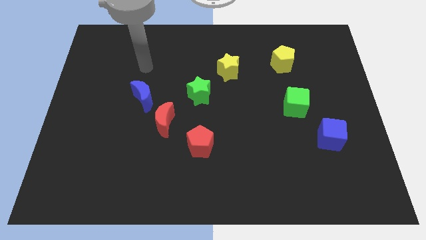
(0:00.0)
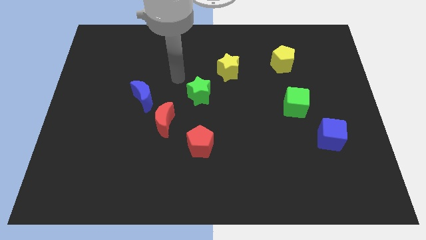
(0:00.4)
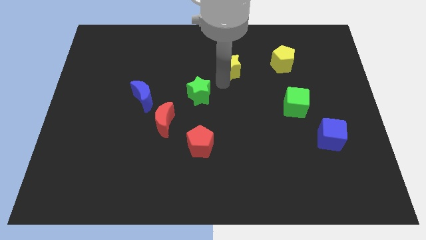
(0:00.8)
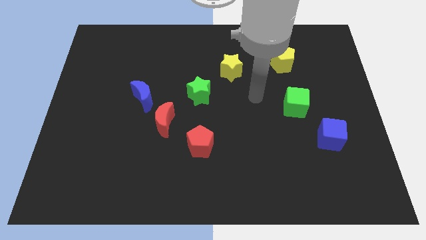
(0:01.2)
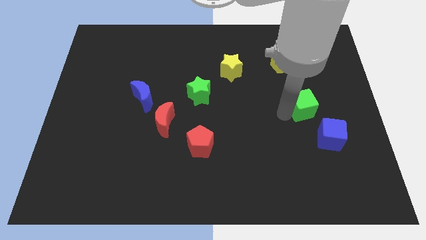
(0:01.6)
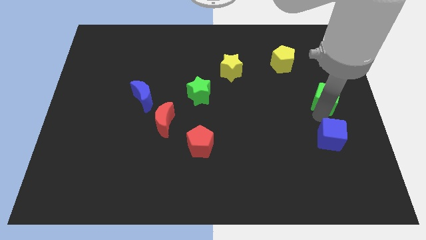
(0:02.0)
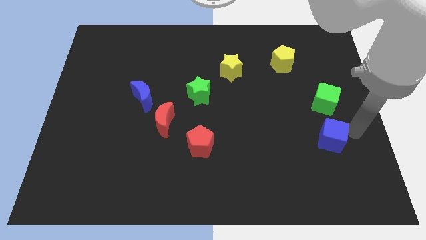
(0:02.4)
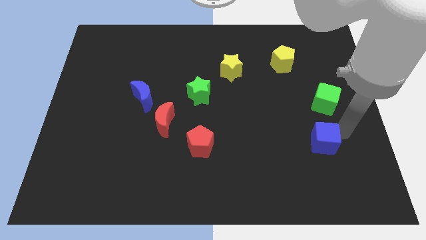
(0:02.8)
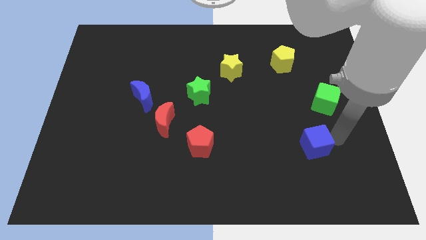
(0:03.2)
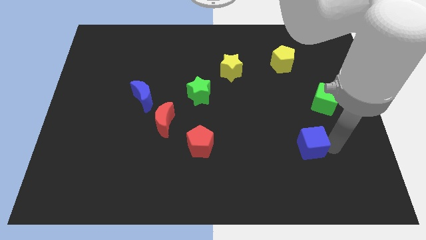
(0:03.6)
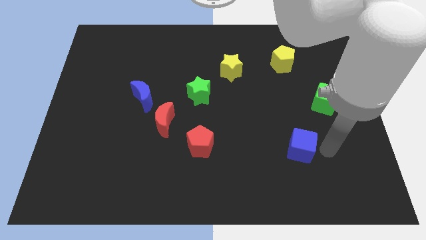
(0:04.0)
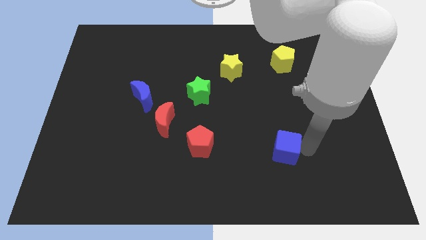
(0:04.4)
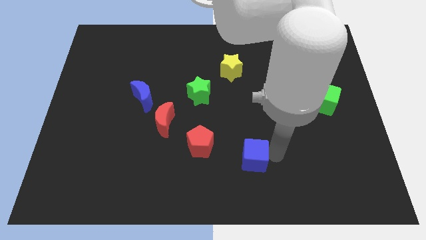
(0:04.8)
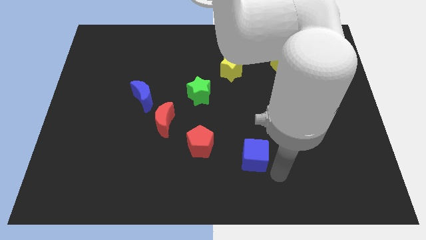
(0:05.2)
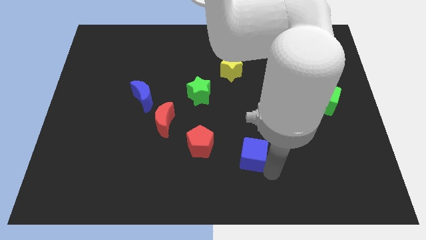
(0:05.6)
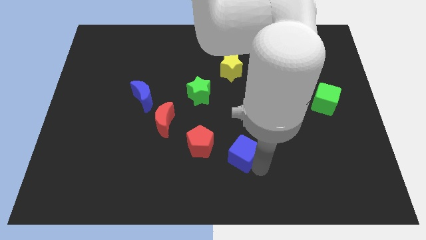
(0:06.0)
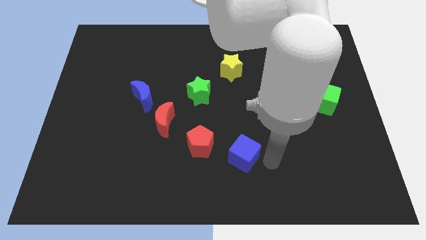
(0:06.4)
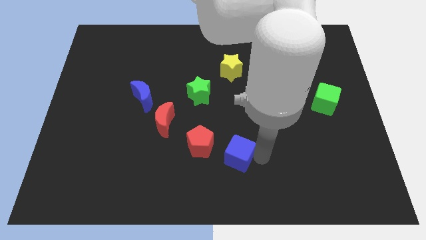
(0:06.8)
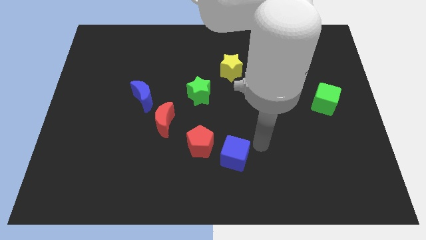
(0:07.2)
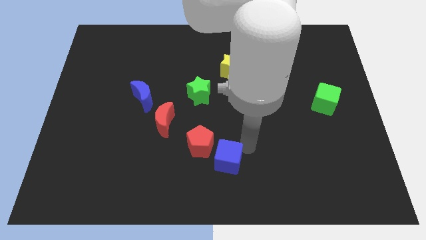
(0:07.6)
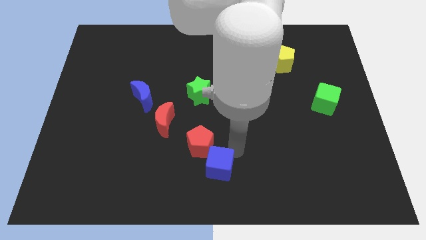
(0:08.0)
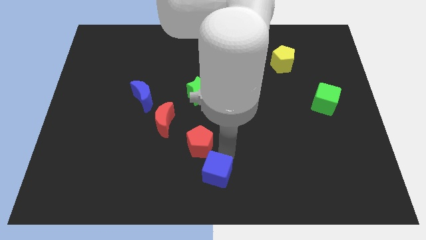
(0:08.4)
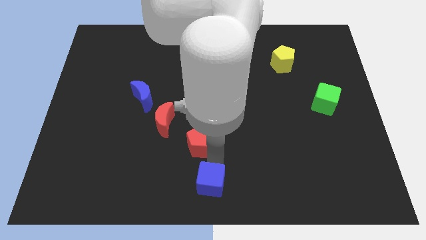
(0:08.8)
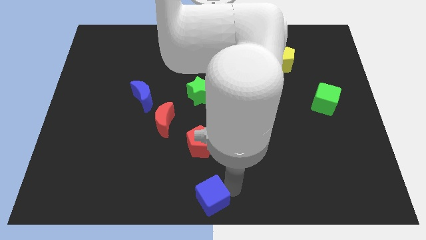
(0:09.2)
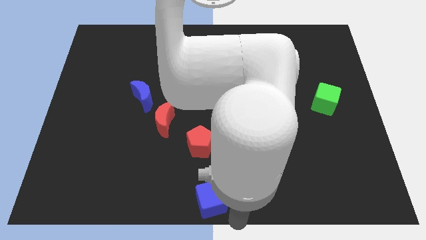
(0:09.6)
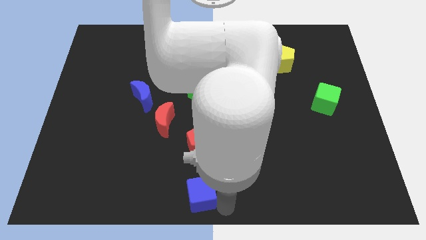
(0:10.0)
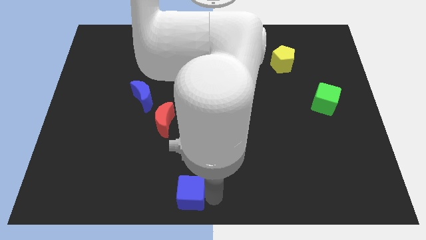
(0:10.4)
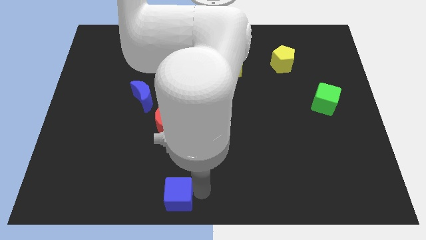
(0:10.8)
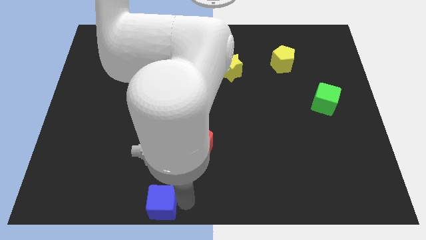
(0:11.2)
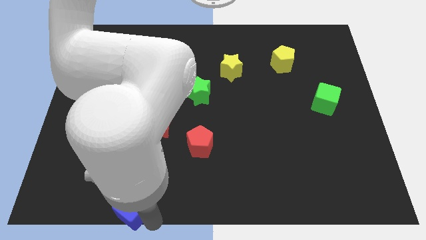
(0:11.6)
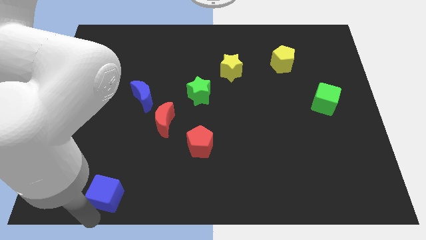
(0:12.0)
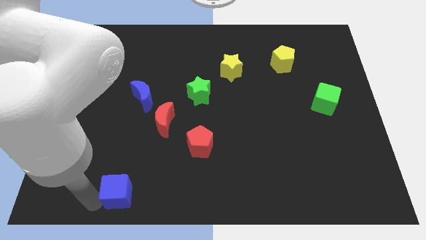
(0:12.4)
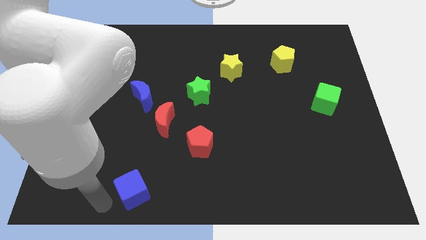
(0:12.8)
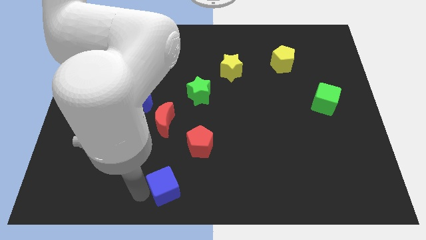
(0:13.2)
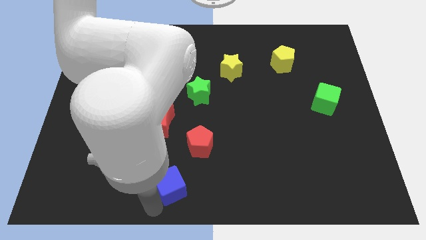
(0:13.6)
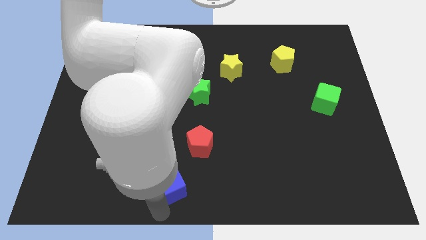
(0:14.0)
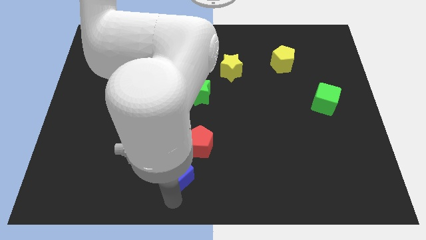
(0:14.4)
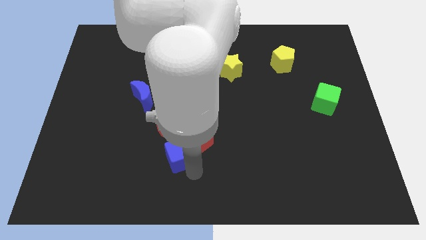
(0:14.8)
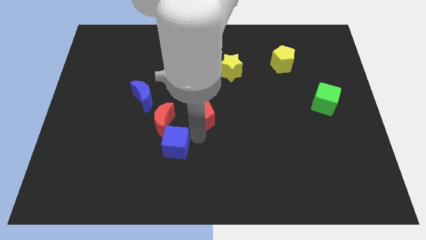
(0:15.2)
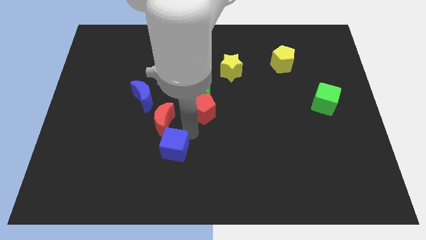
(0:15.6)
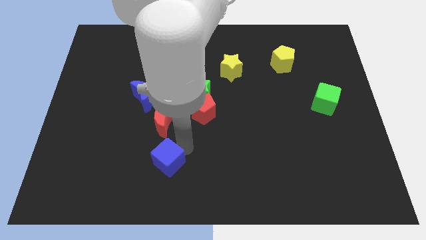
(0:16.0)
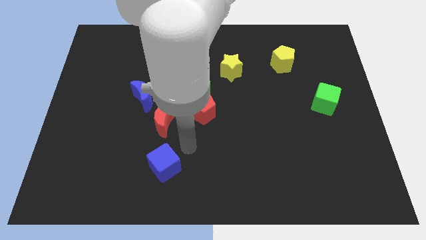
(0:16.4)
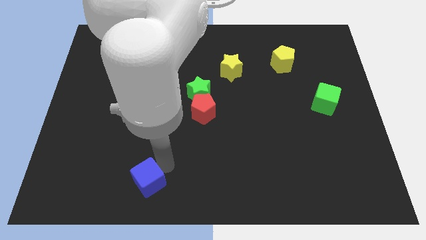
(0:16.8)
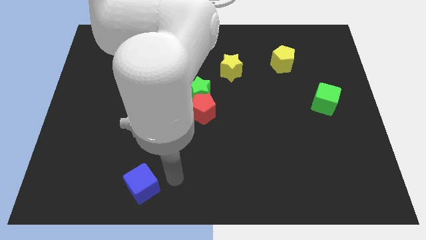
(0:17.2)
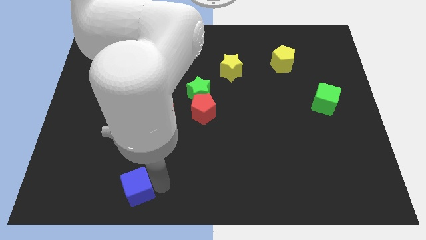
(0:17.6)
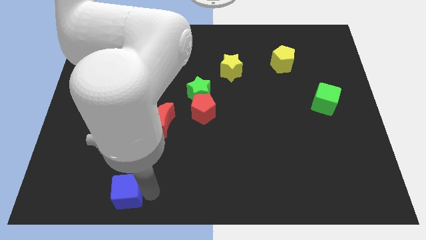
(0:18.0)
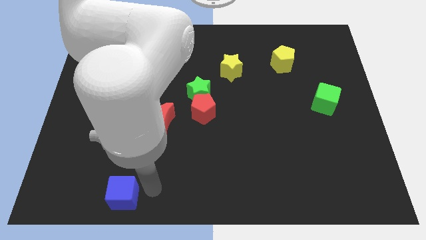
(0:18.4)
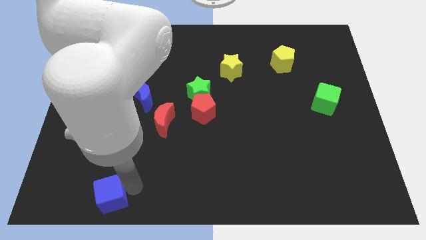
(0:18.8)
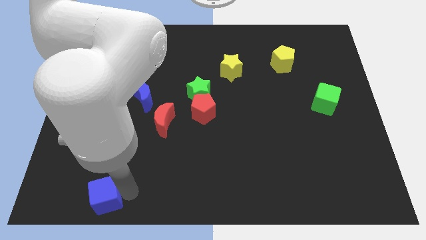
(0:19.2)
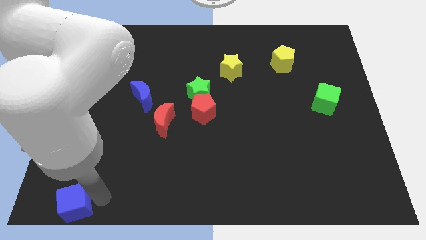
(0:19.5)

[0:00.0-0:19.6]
slide the blue cube to the bottom left corner

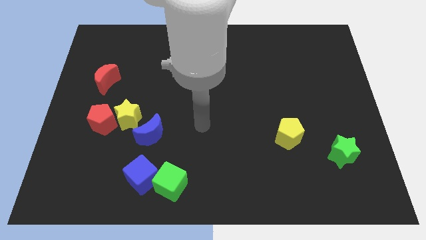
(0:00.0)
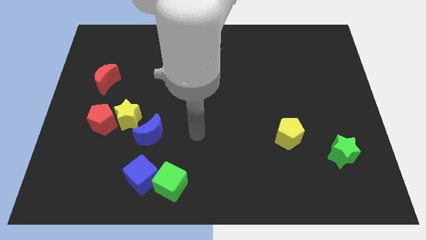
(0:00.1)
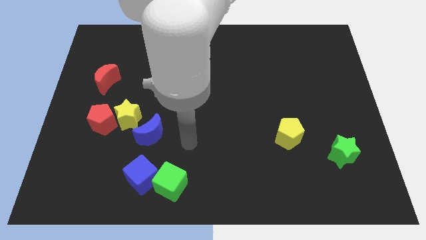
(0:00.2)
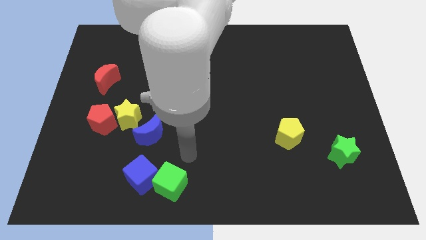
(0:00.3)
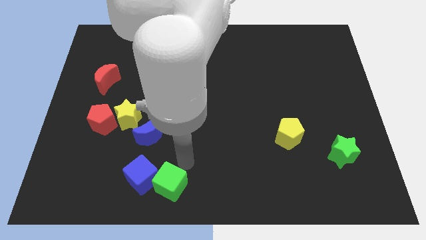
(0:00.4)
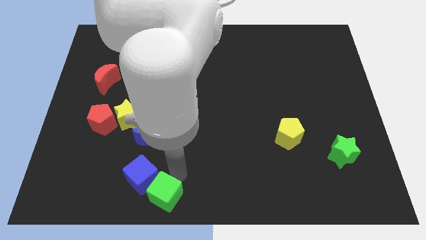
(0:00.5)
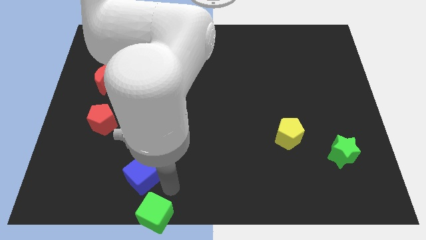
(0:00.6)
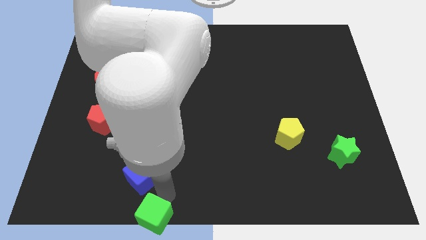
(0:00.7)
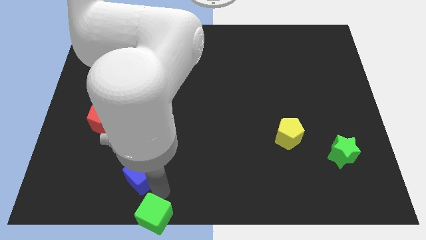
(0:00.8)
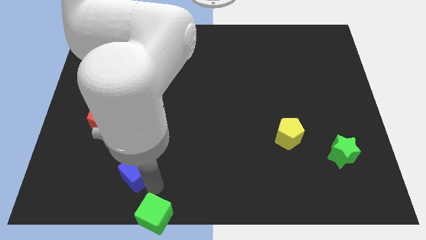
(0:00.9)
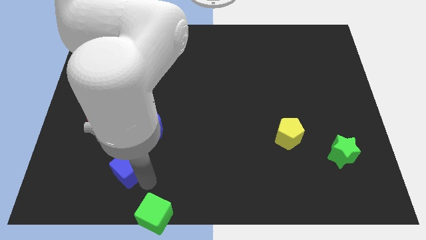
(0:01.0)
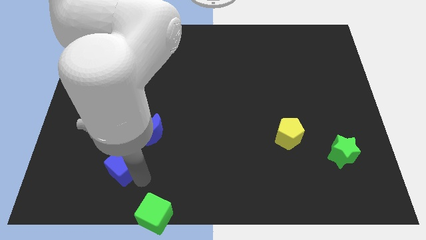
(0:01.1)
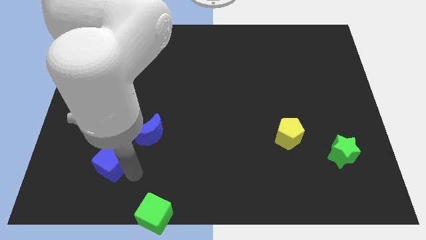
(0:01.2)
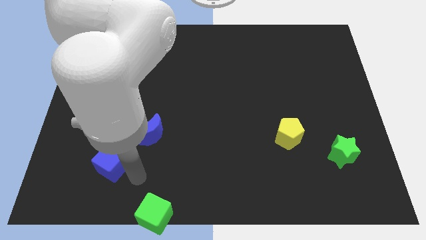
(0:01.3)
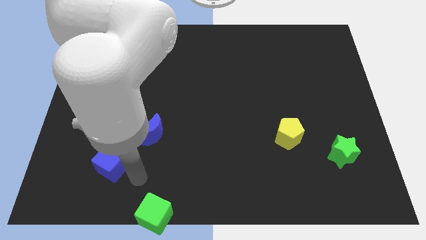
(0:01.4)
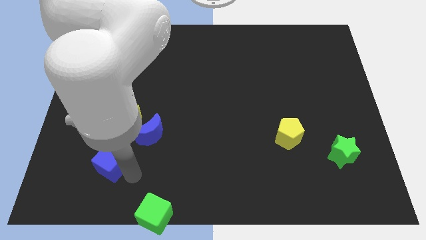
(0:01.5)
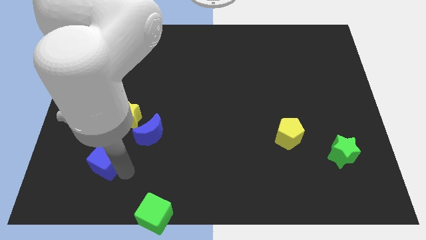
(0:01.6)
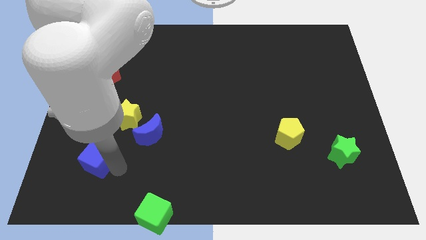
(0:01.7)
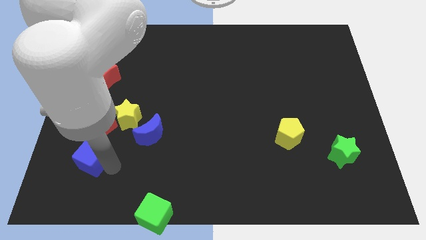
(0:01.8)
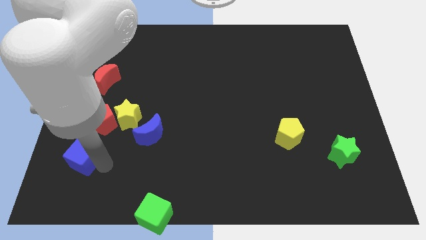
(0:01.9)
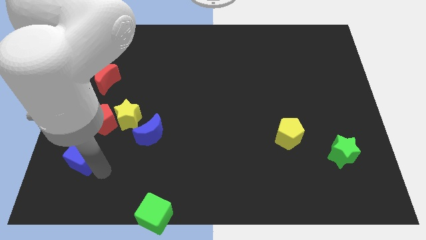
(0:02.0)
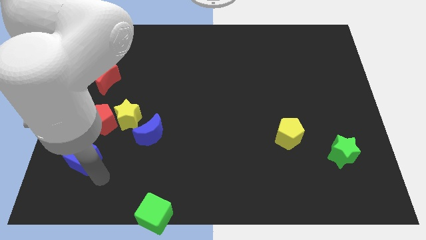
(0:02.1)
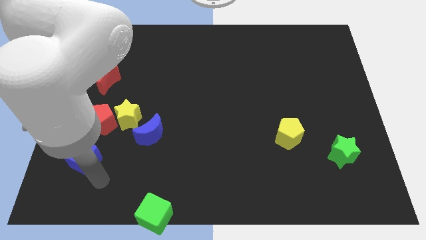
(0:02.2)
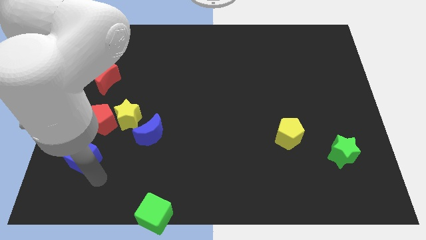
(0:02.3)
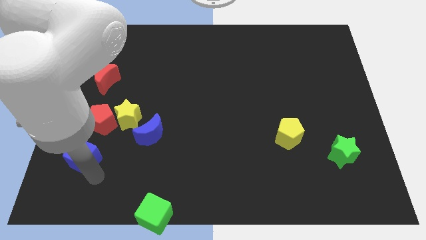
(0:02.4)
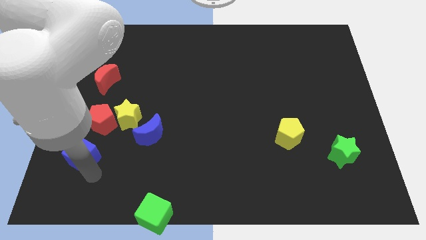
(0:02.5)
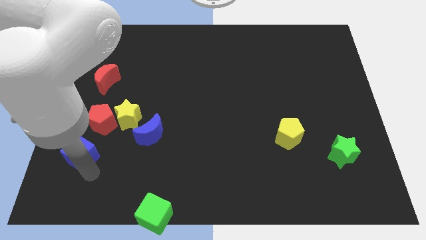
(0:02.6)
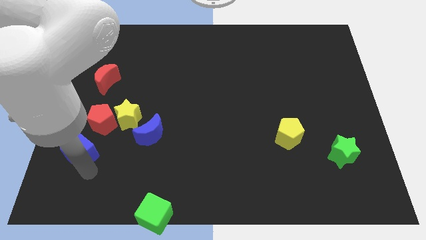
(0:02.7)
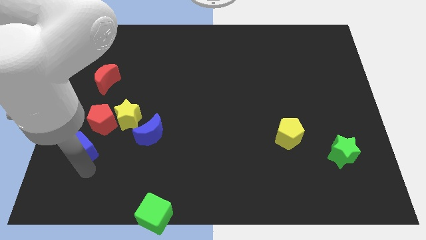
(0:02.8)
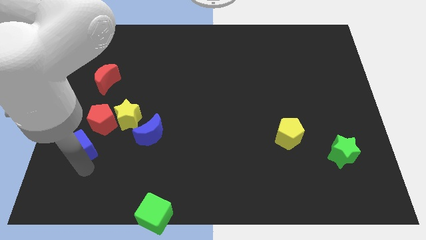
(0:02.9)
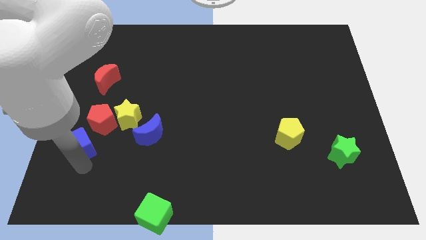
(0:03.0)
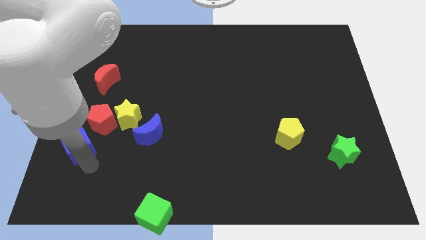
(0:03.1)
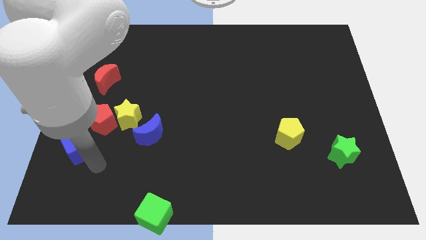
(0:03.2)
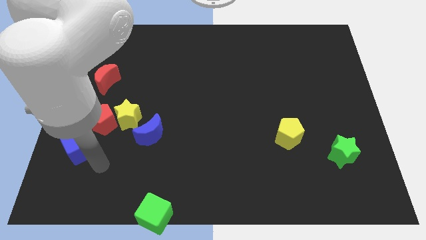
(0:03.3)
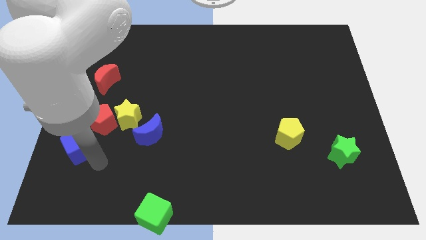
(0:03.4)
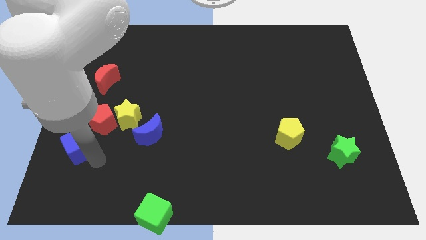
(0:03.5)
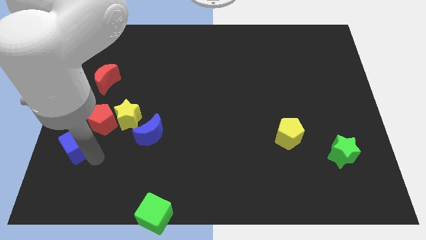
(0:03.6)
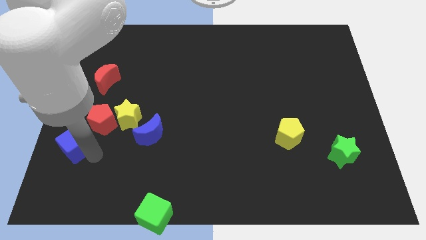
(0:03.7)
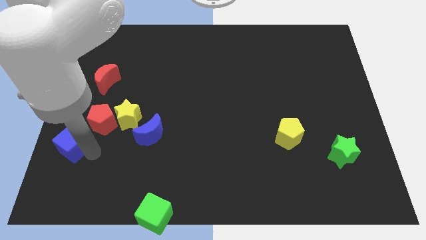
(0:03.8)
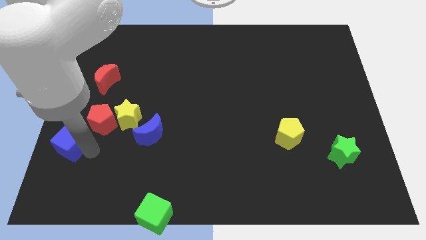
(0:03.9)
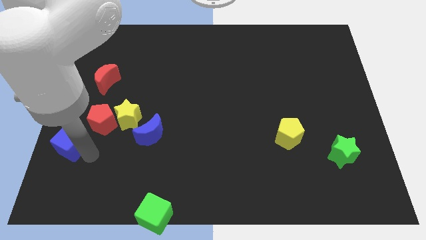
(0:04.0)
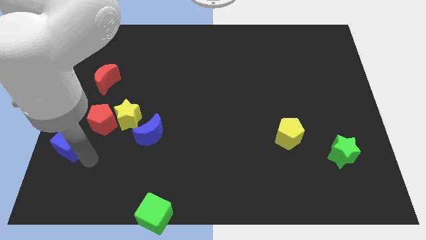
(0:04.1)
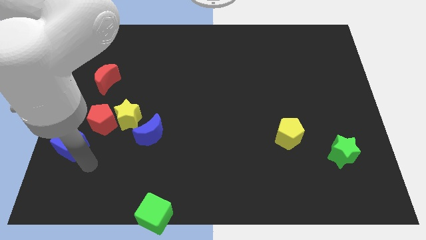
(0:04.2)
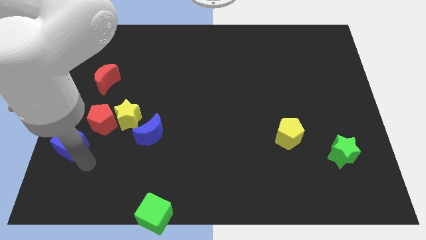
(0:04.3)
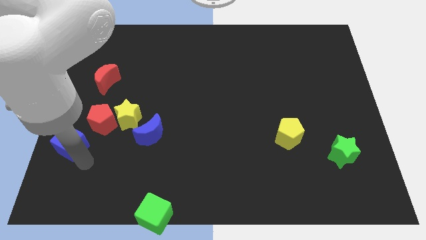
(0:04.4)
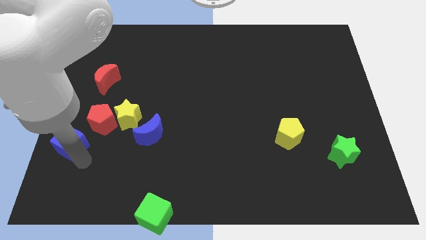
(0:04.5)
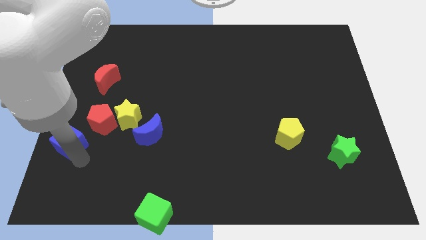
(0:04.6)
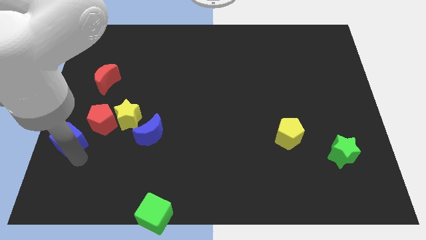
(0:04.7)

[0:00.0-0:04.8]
slide the blue cube to the center left
